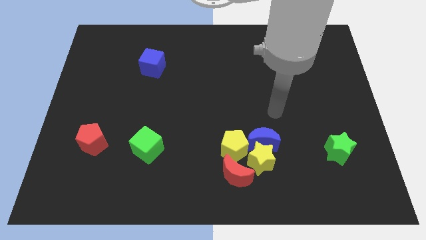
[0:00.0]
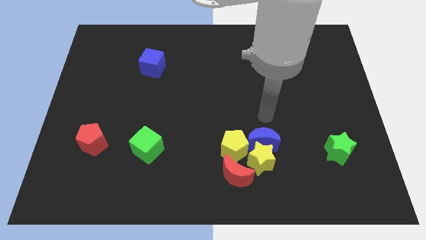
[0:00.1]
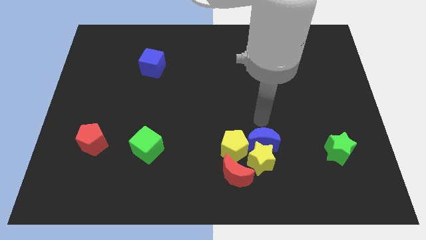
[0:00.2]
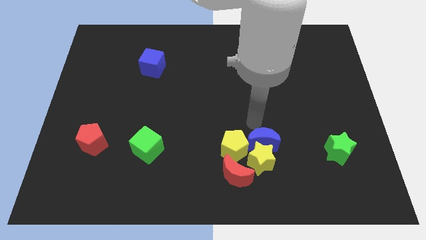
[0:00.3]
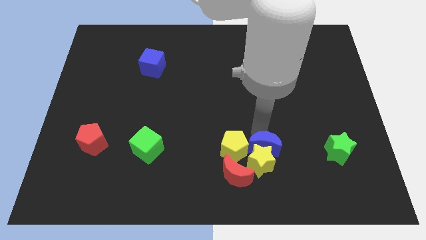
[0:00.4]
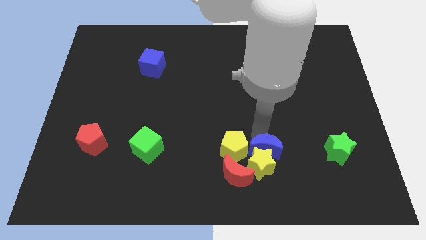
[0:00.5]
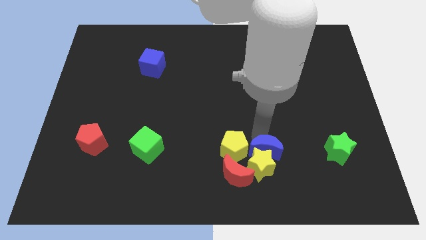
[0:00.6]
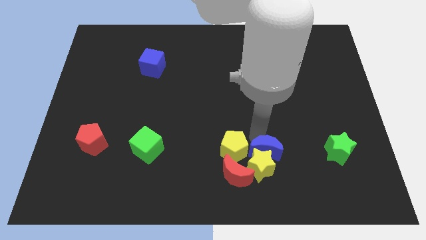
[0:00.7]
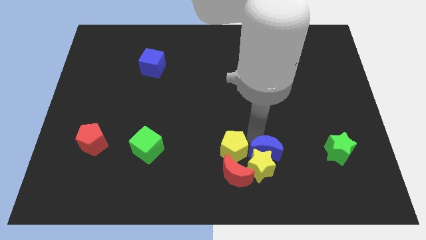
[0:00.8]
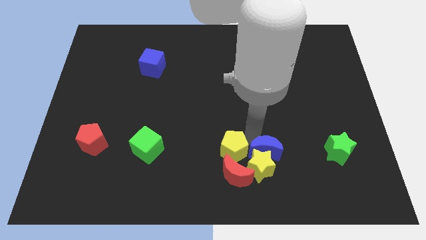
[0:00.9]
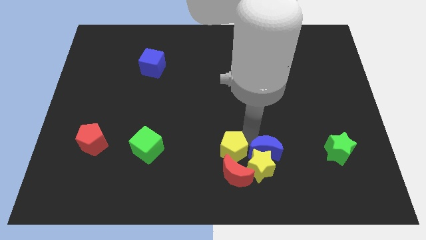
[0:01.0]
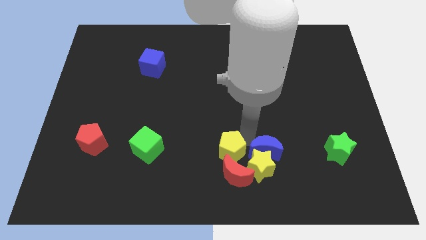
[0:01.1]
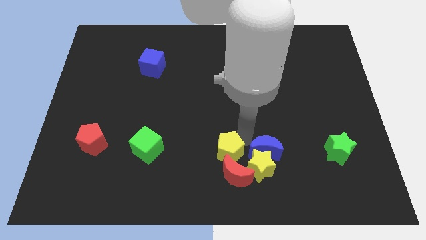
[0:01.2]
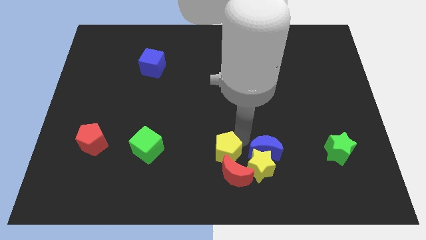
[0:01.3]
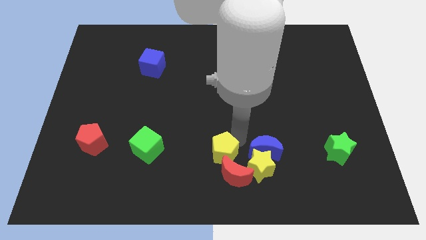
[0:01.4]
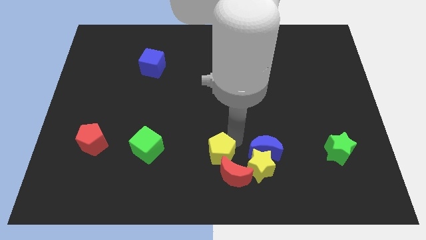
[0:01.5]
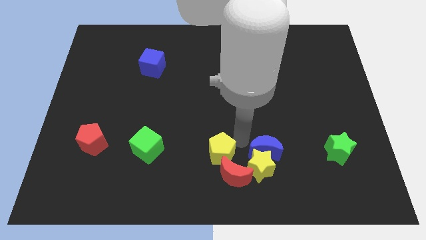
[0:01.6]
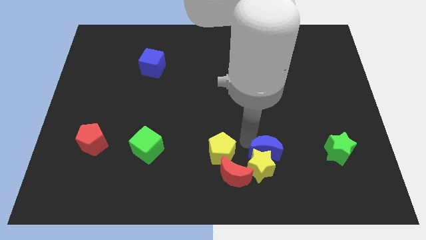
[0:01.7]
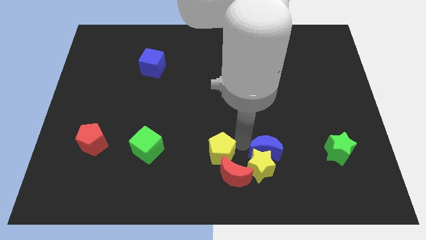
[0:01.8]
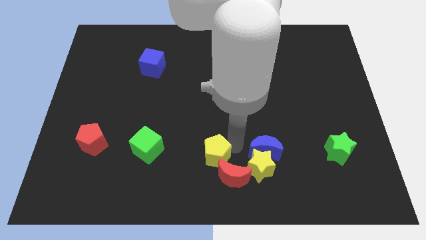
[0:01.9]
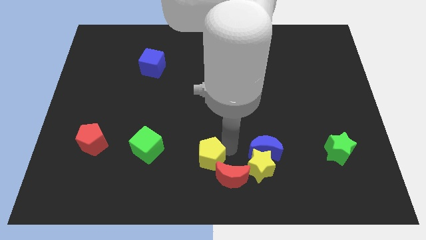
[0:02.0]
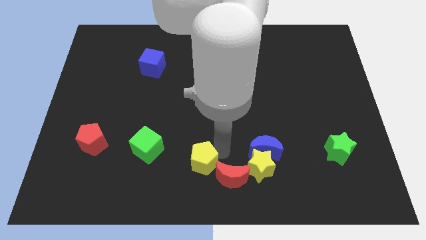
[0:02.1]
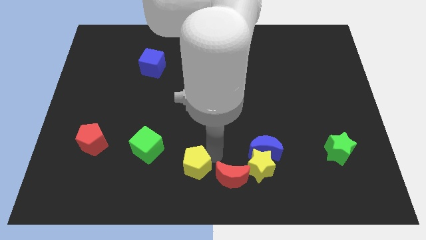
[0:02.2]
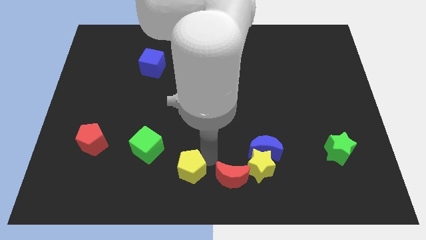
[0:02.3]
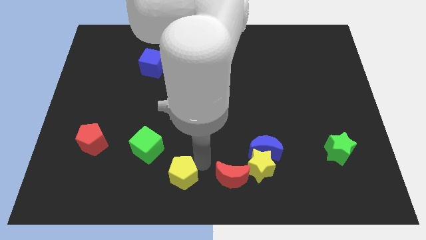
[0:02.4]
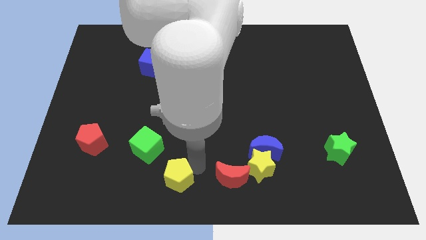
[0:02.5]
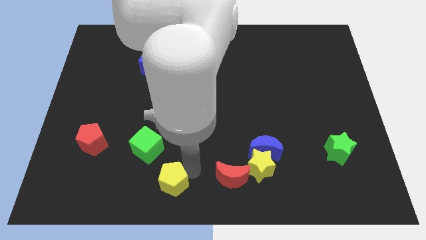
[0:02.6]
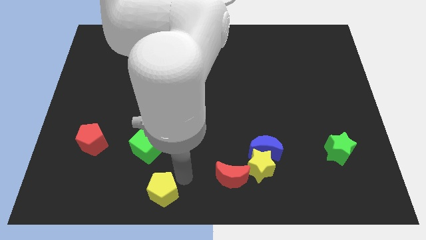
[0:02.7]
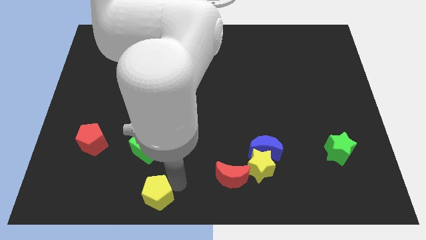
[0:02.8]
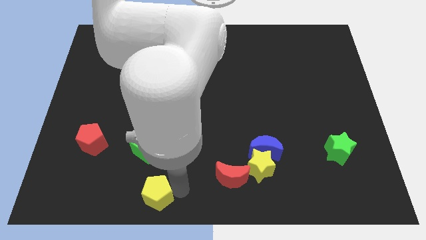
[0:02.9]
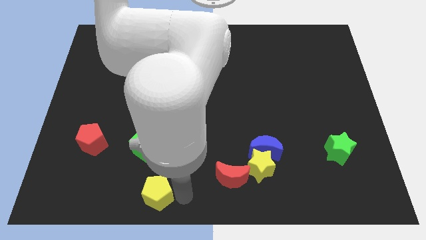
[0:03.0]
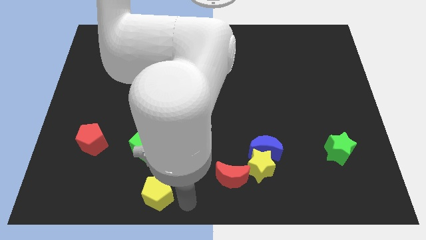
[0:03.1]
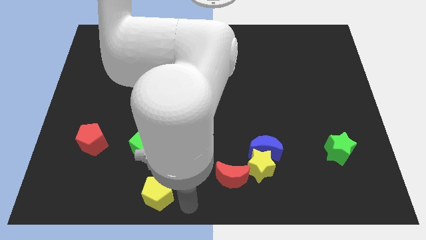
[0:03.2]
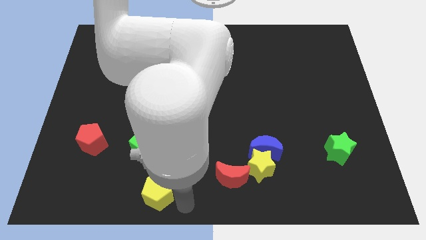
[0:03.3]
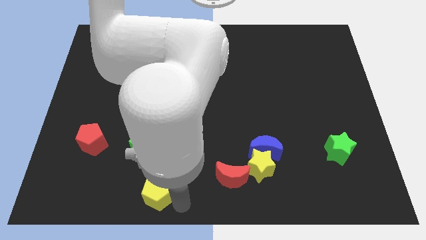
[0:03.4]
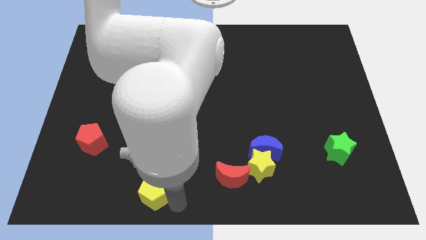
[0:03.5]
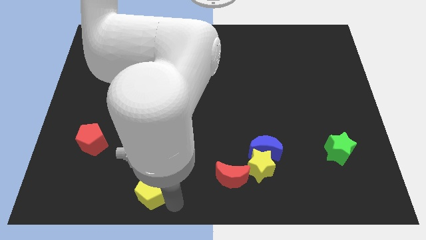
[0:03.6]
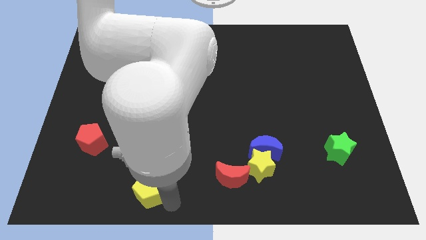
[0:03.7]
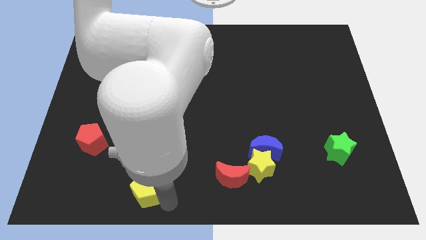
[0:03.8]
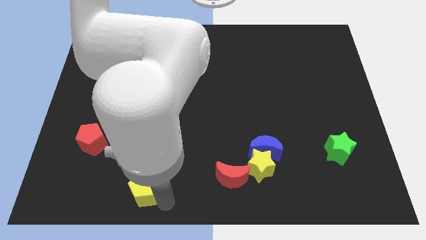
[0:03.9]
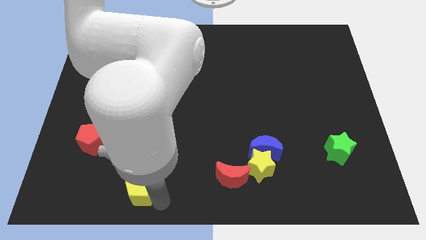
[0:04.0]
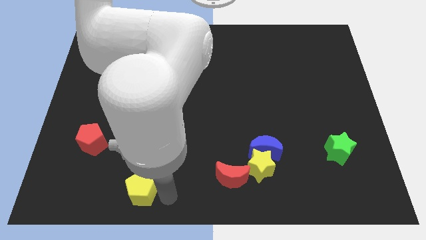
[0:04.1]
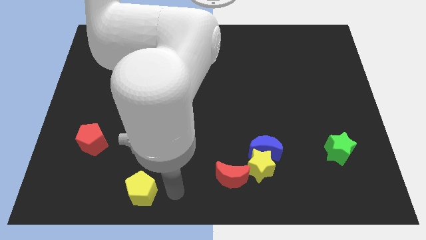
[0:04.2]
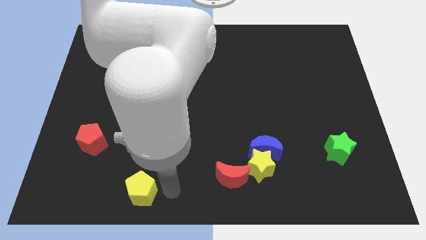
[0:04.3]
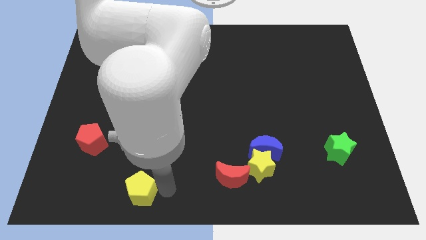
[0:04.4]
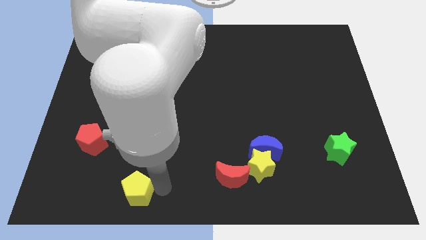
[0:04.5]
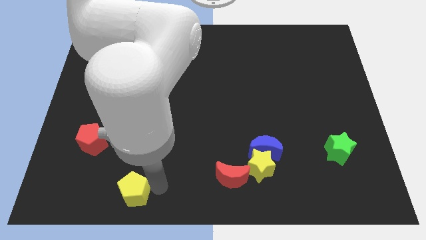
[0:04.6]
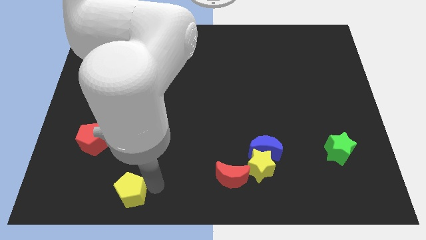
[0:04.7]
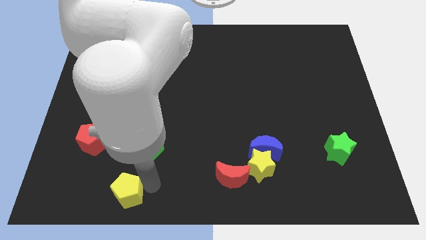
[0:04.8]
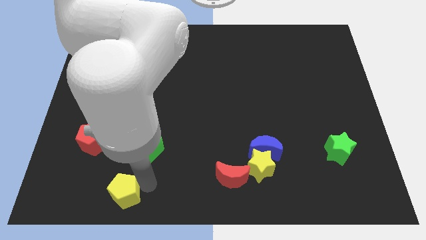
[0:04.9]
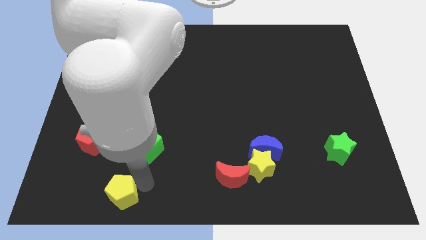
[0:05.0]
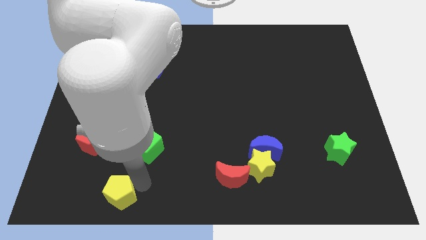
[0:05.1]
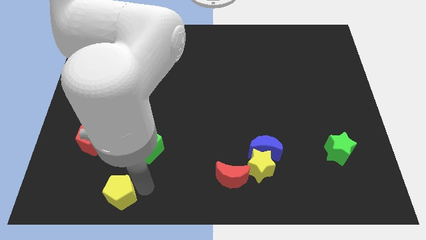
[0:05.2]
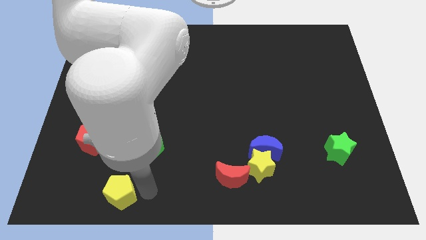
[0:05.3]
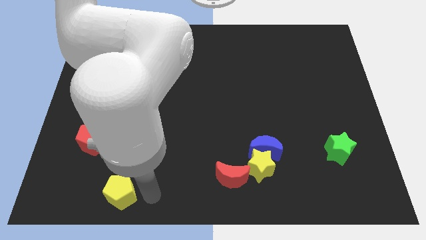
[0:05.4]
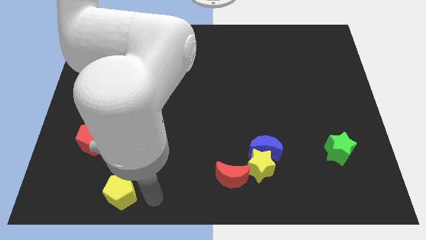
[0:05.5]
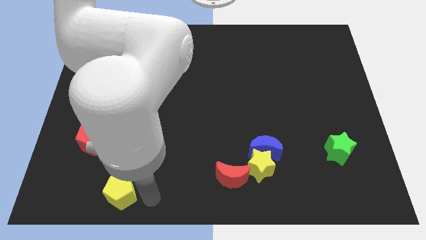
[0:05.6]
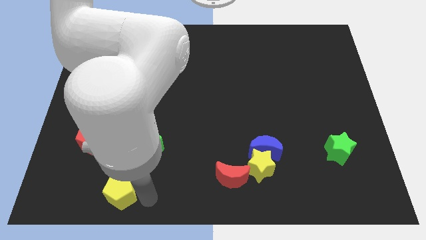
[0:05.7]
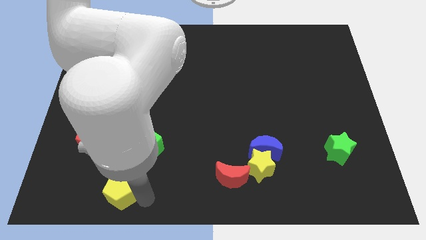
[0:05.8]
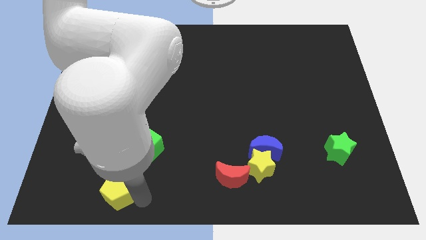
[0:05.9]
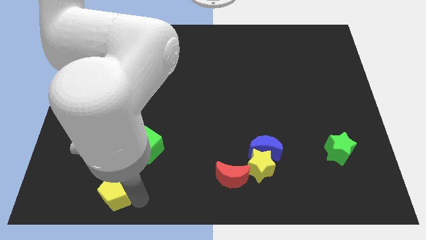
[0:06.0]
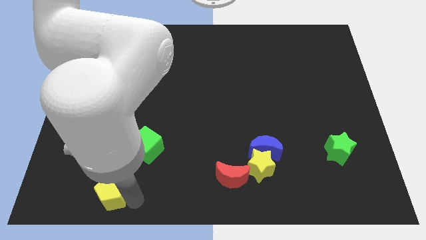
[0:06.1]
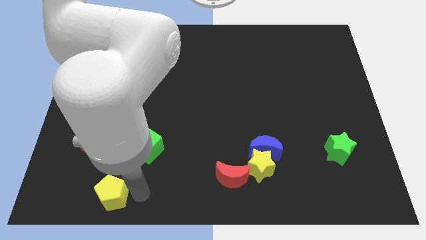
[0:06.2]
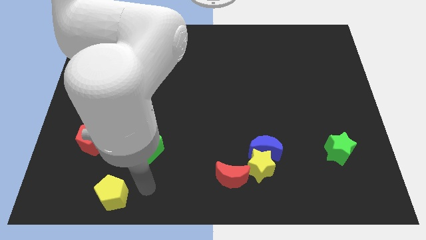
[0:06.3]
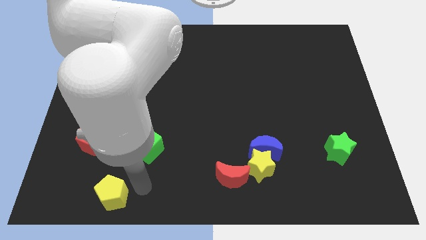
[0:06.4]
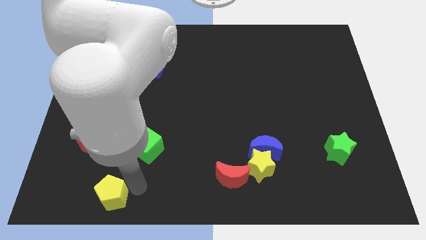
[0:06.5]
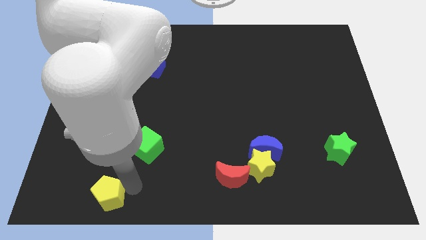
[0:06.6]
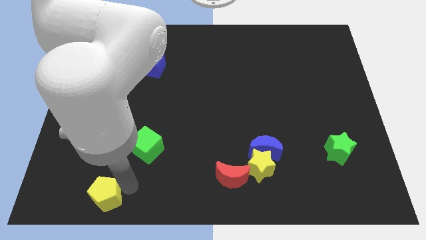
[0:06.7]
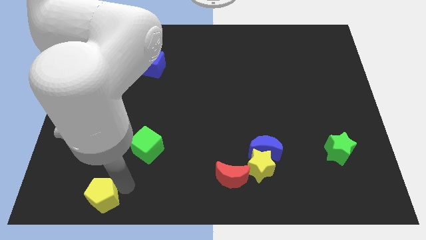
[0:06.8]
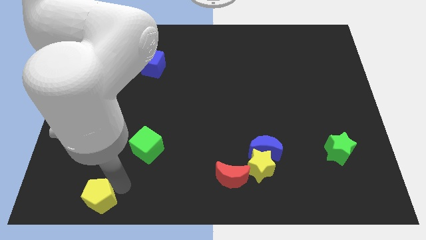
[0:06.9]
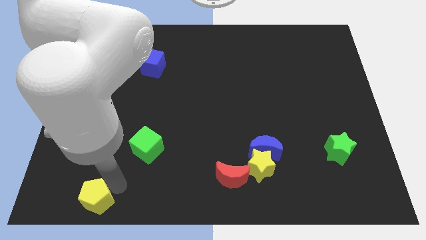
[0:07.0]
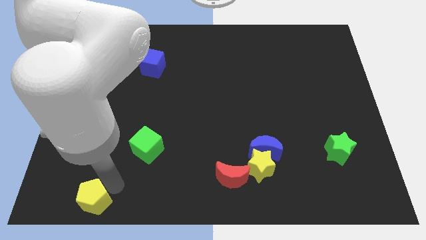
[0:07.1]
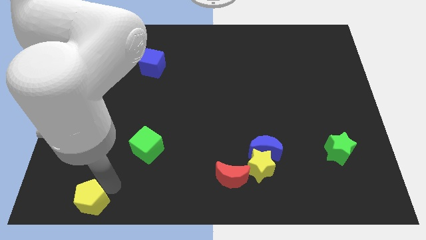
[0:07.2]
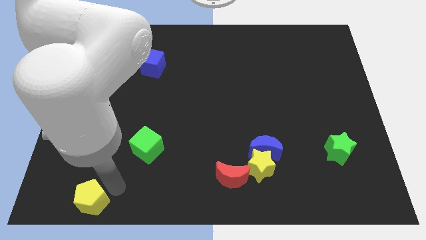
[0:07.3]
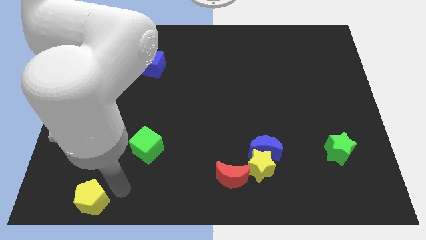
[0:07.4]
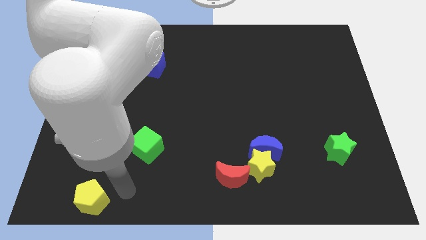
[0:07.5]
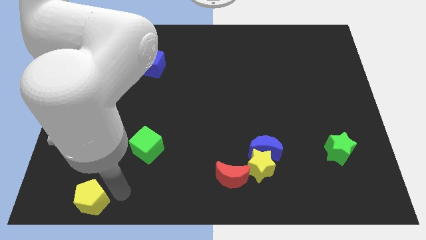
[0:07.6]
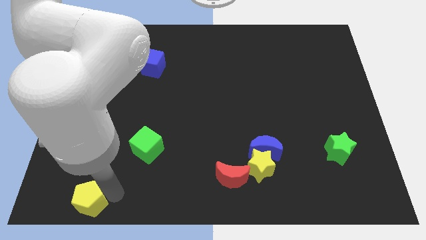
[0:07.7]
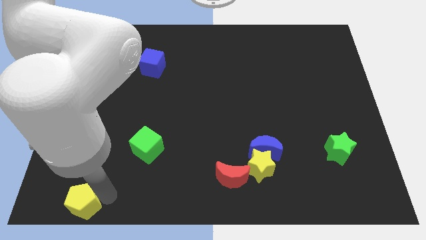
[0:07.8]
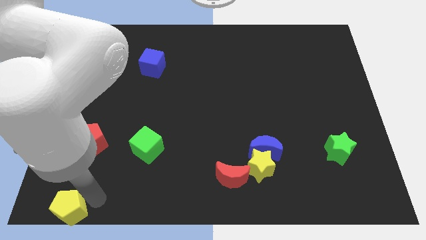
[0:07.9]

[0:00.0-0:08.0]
push the yellow pentagon to the lower left corner
